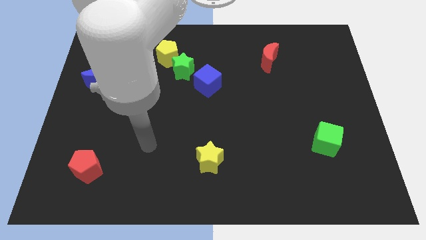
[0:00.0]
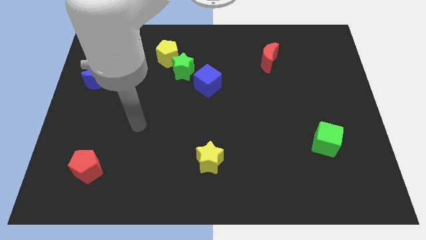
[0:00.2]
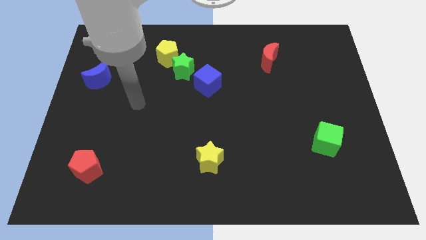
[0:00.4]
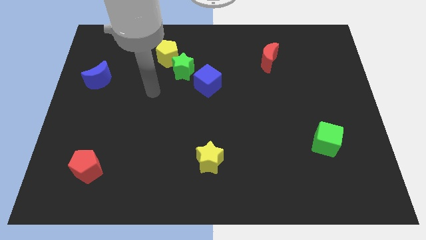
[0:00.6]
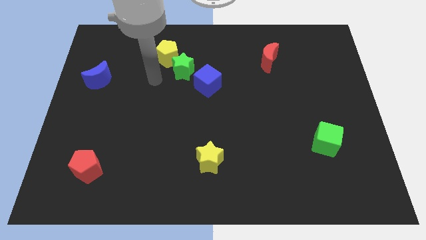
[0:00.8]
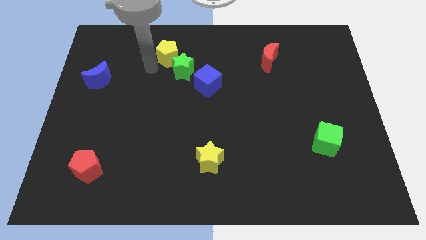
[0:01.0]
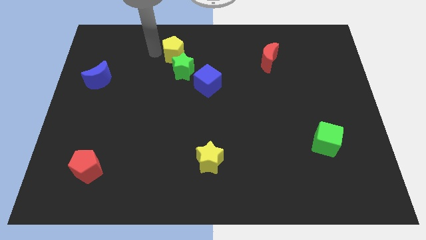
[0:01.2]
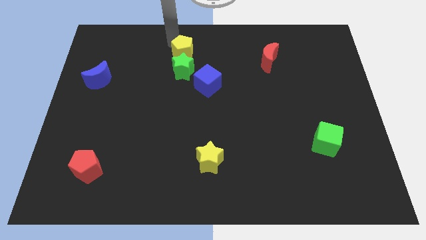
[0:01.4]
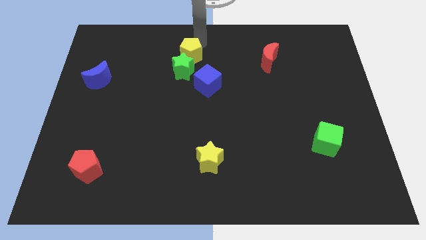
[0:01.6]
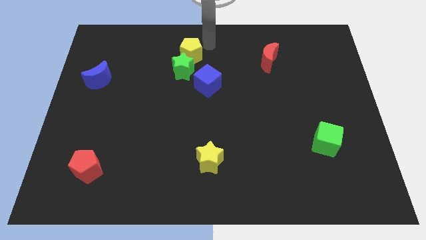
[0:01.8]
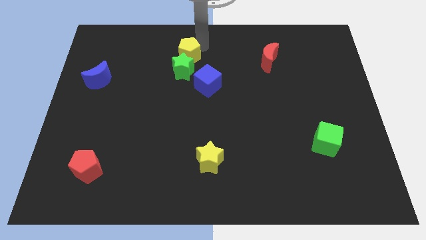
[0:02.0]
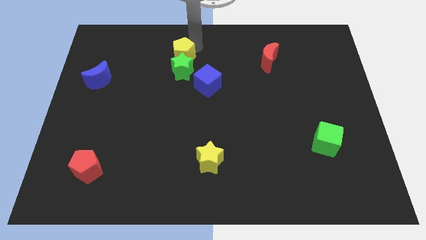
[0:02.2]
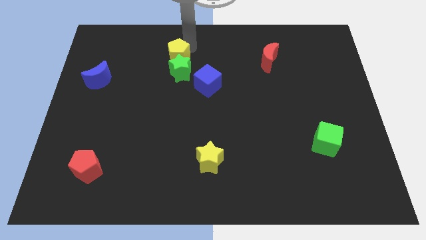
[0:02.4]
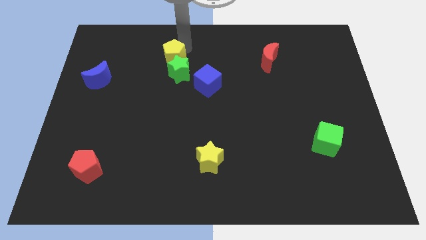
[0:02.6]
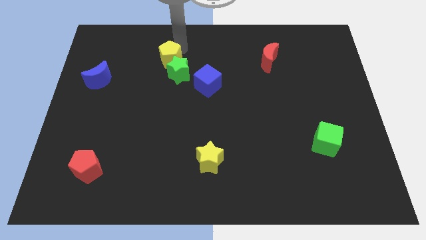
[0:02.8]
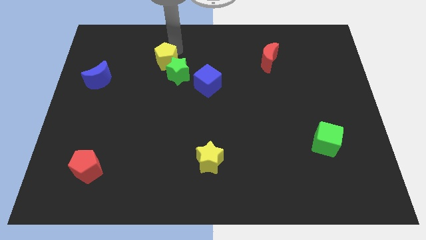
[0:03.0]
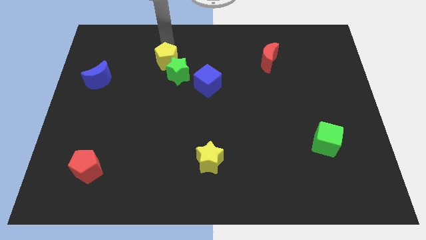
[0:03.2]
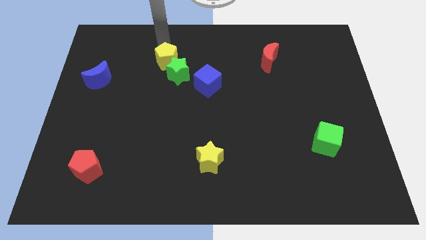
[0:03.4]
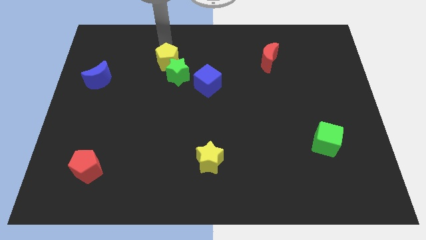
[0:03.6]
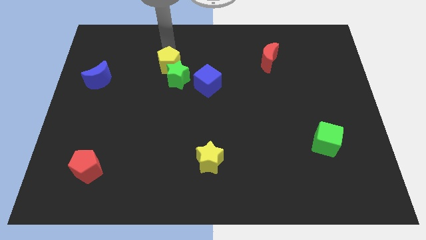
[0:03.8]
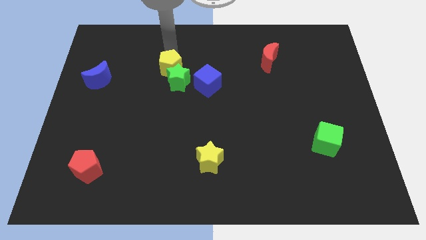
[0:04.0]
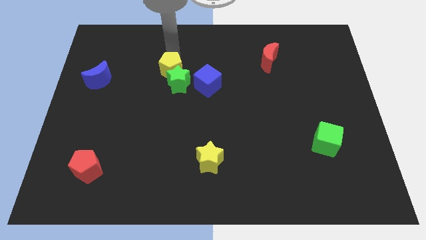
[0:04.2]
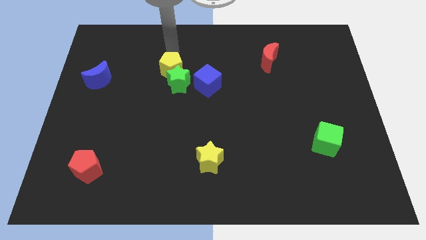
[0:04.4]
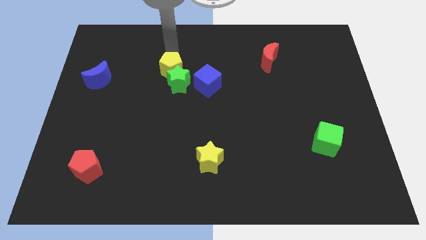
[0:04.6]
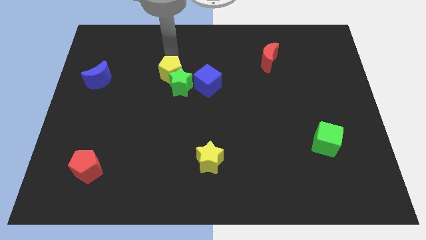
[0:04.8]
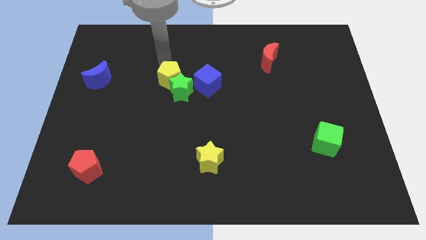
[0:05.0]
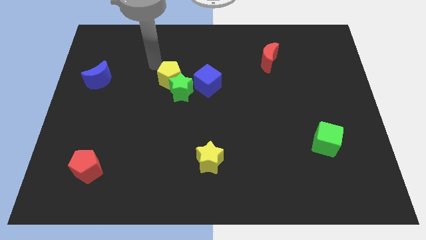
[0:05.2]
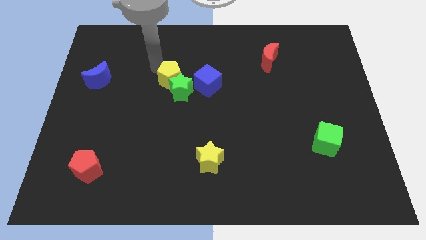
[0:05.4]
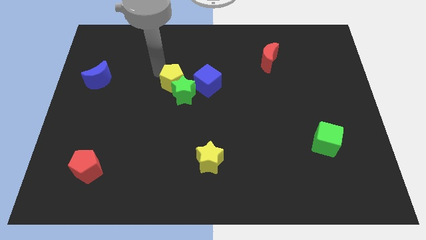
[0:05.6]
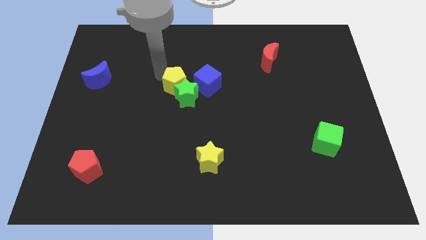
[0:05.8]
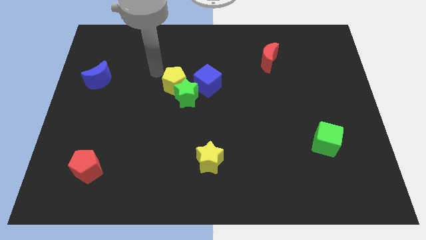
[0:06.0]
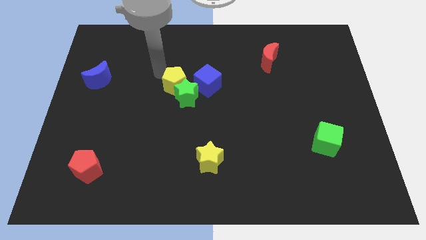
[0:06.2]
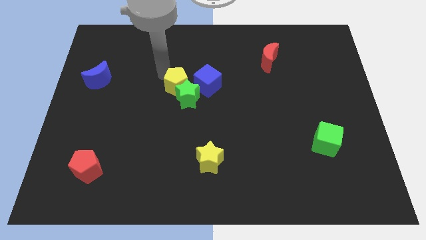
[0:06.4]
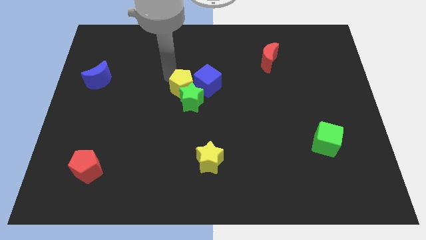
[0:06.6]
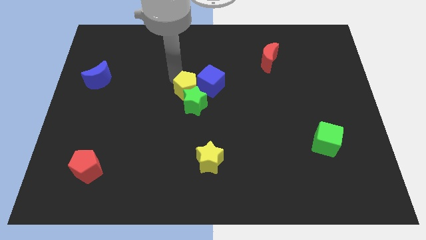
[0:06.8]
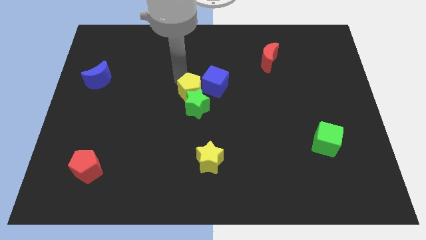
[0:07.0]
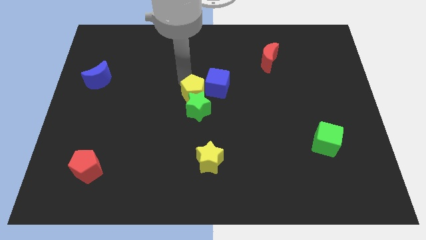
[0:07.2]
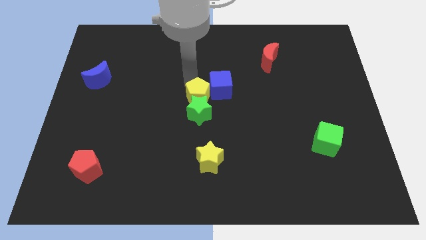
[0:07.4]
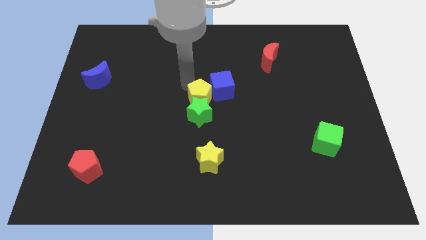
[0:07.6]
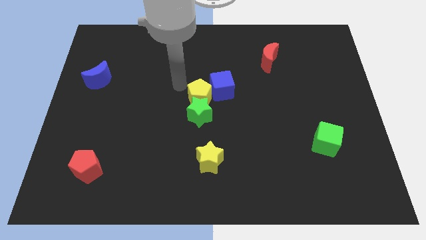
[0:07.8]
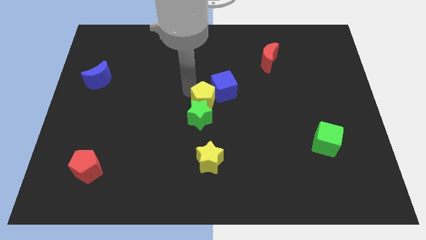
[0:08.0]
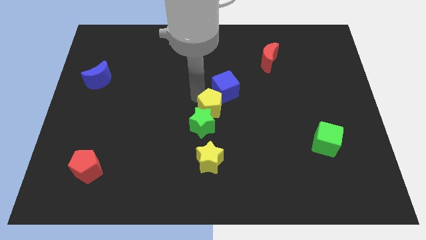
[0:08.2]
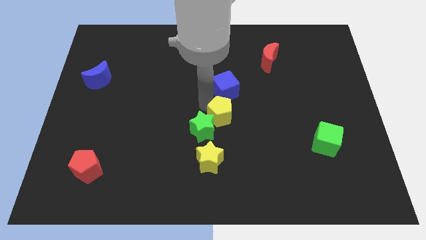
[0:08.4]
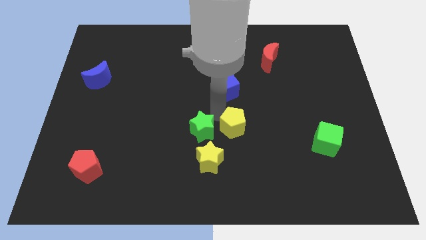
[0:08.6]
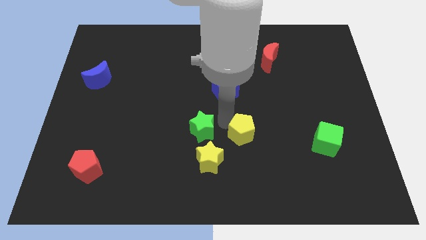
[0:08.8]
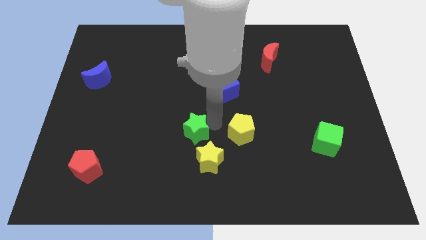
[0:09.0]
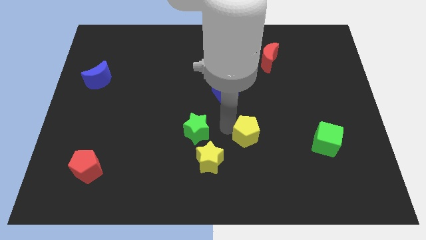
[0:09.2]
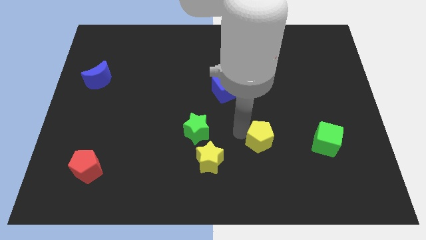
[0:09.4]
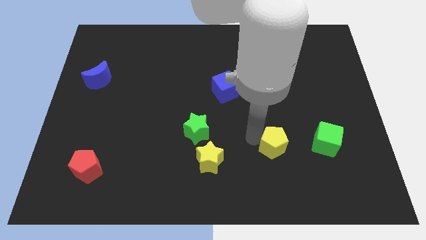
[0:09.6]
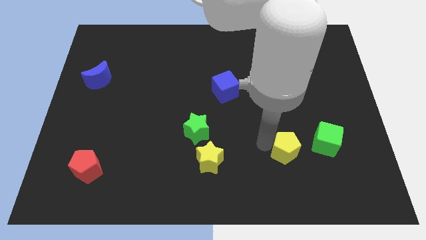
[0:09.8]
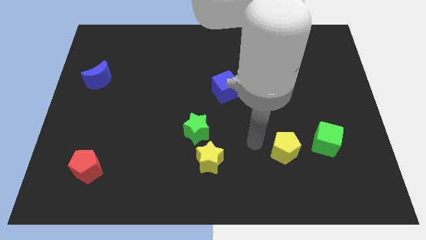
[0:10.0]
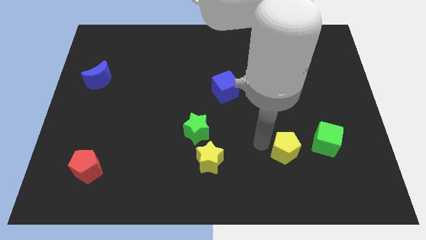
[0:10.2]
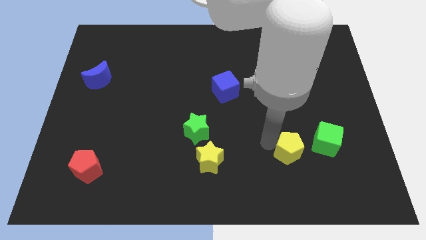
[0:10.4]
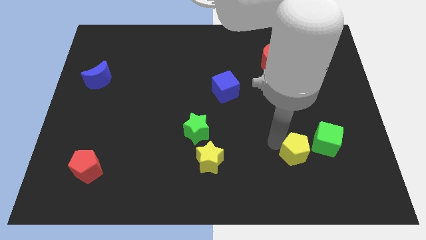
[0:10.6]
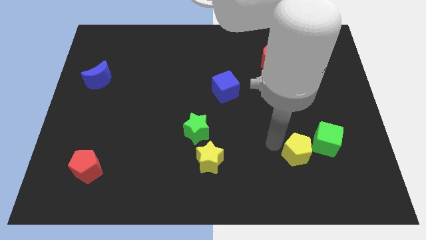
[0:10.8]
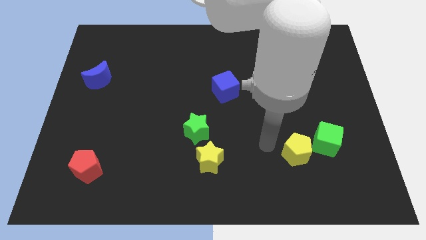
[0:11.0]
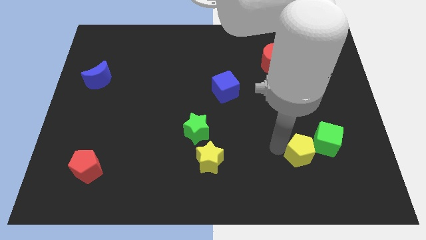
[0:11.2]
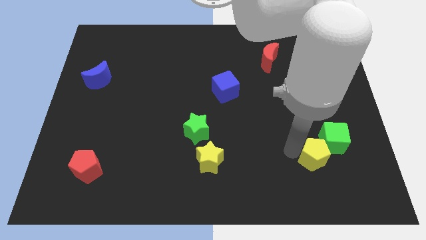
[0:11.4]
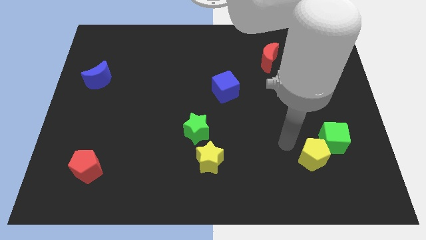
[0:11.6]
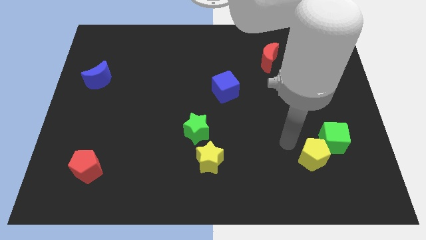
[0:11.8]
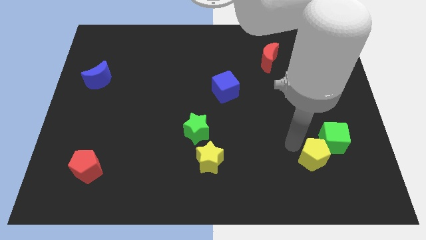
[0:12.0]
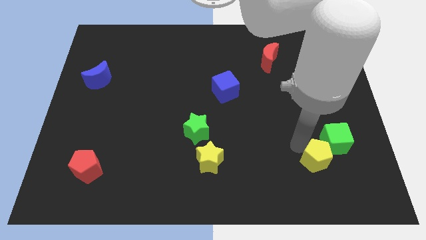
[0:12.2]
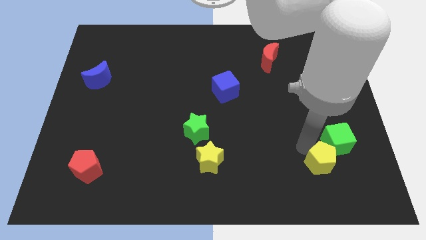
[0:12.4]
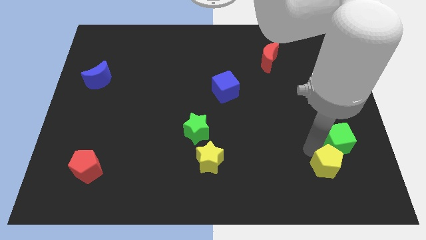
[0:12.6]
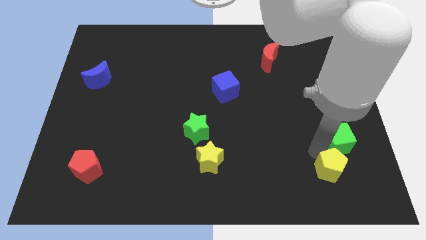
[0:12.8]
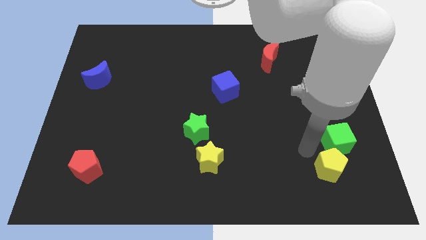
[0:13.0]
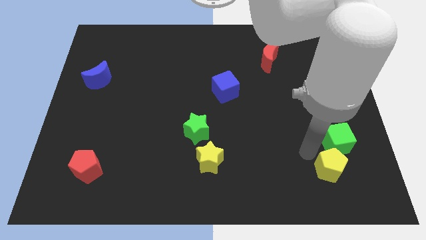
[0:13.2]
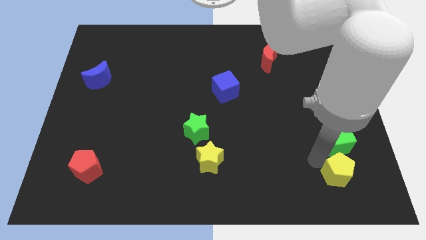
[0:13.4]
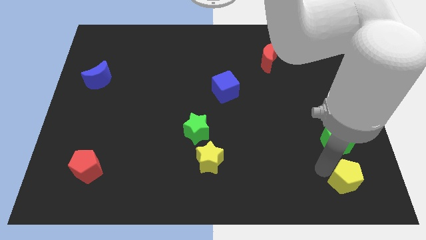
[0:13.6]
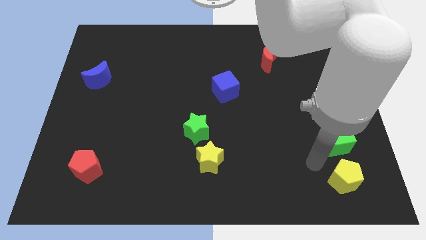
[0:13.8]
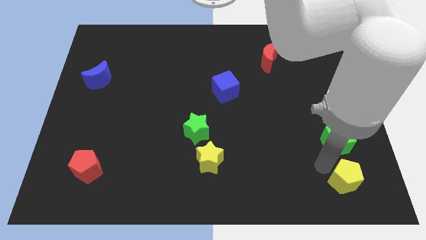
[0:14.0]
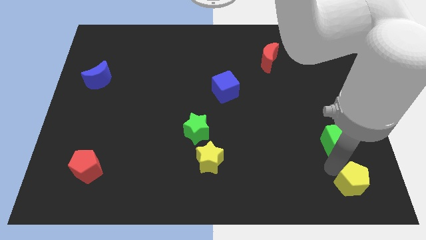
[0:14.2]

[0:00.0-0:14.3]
push the yellow pentagon to the bottom right corner
